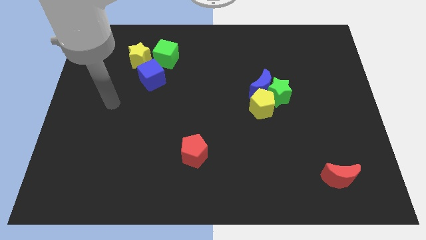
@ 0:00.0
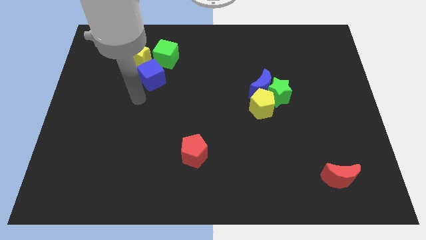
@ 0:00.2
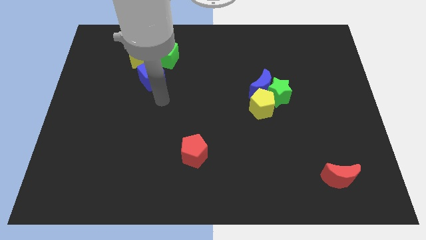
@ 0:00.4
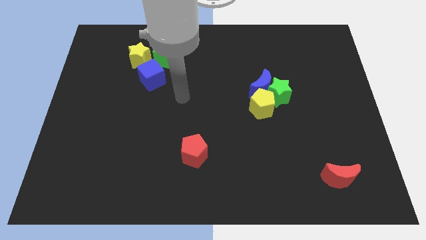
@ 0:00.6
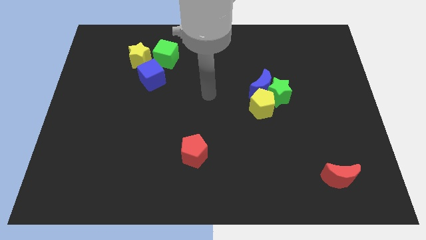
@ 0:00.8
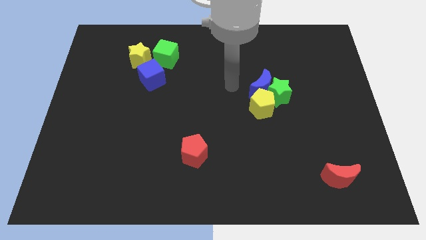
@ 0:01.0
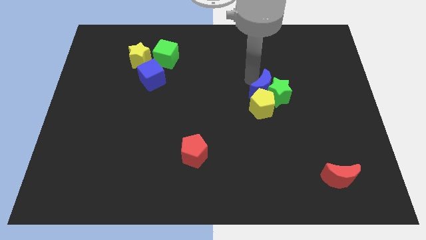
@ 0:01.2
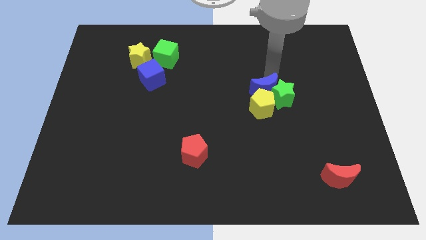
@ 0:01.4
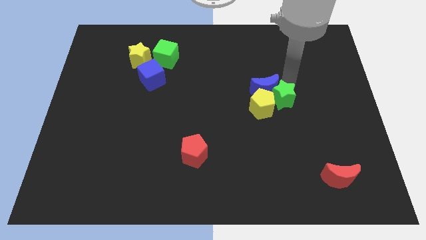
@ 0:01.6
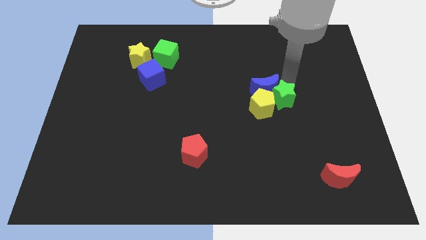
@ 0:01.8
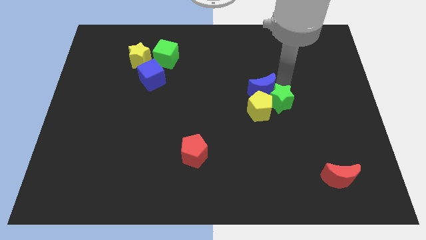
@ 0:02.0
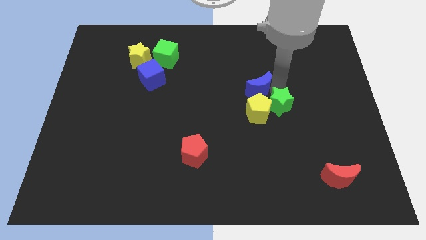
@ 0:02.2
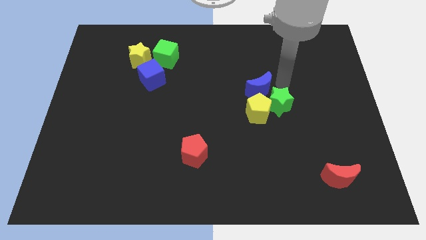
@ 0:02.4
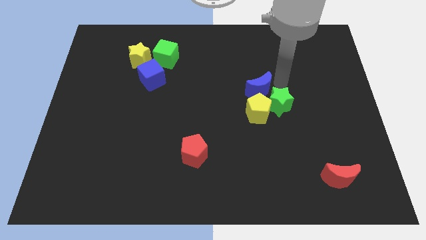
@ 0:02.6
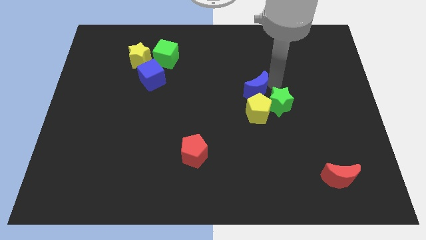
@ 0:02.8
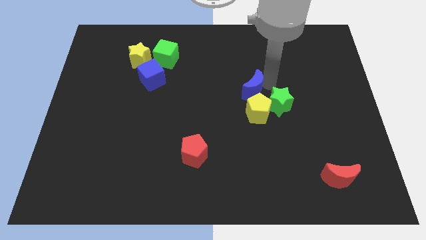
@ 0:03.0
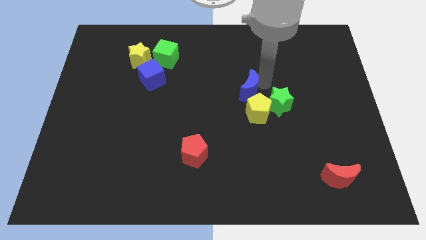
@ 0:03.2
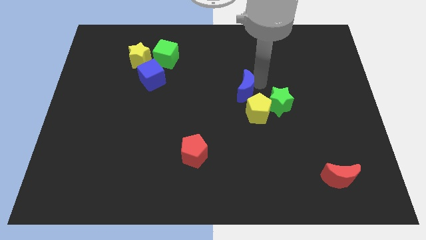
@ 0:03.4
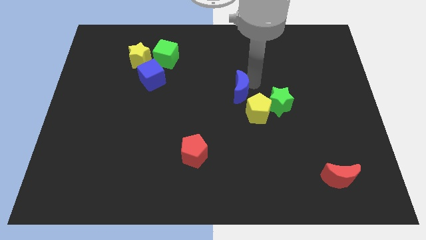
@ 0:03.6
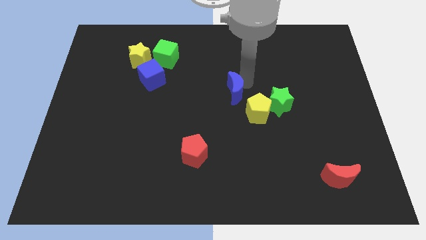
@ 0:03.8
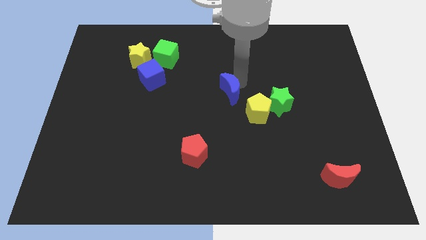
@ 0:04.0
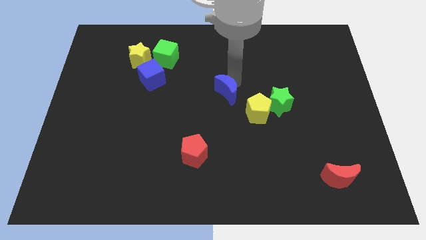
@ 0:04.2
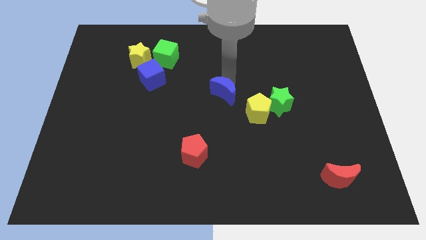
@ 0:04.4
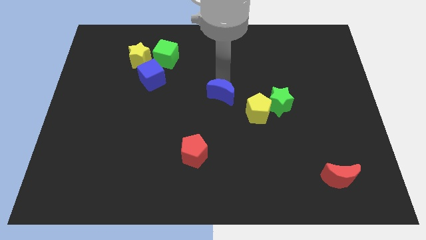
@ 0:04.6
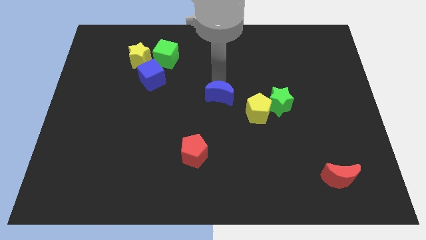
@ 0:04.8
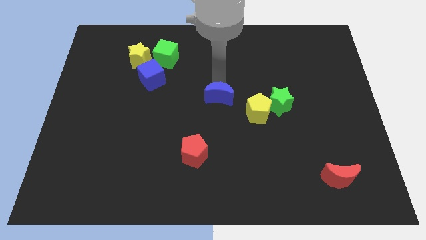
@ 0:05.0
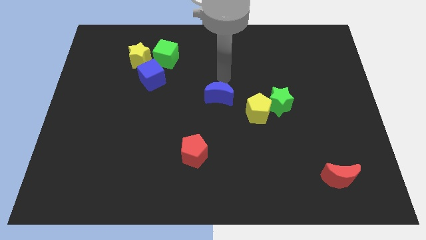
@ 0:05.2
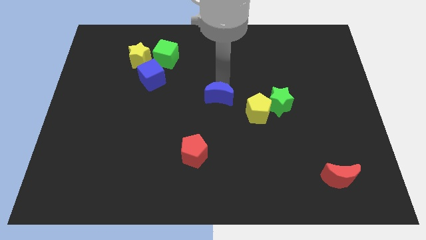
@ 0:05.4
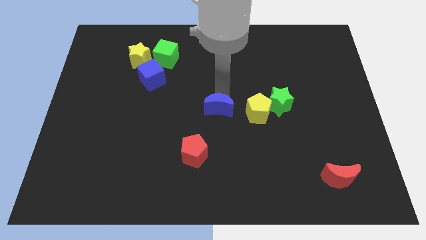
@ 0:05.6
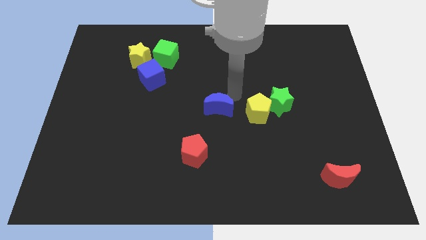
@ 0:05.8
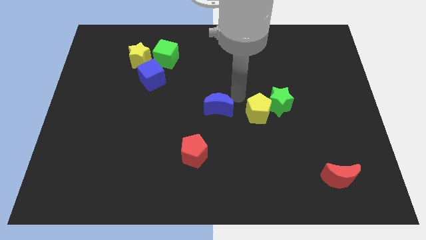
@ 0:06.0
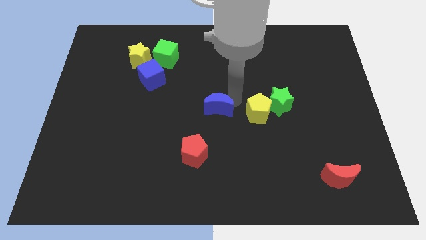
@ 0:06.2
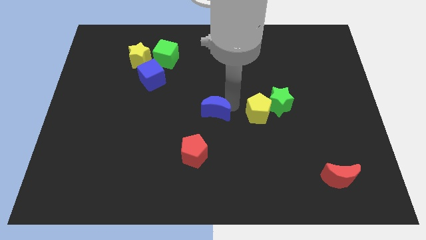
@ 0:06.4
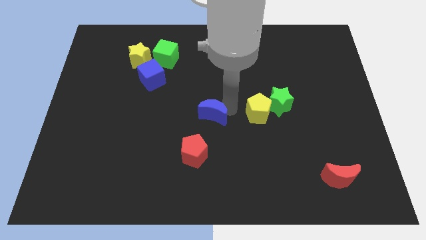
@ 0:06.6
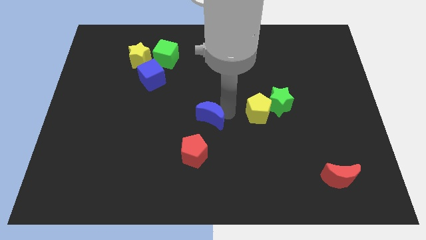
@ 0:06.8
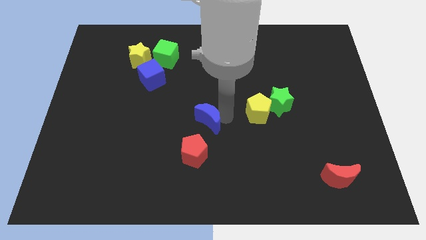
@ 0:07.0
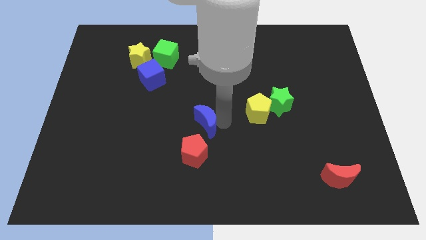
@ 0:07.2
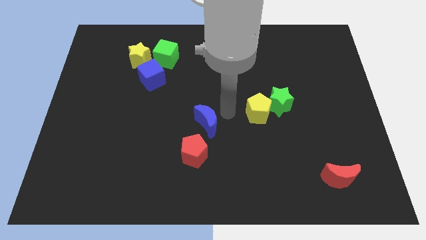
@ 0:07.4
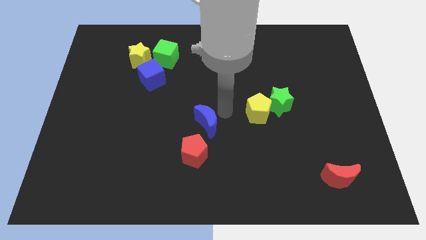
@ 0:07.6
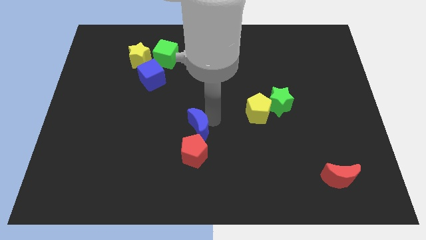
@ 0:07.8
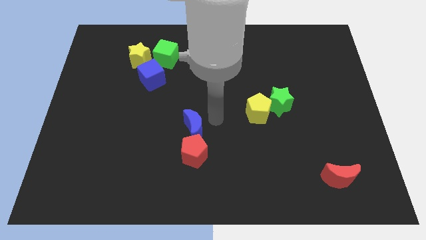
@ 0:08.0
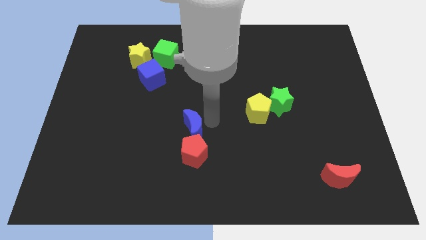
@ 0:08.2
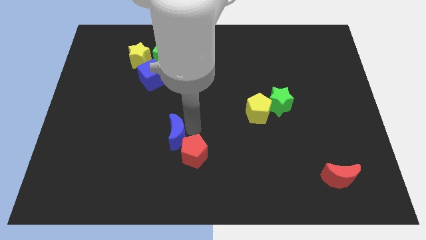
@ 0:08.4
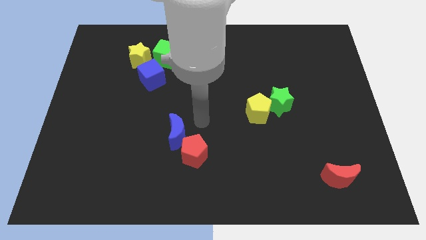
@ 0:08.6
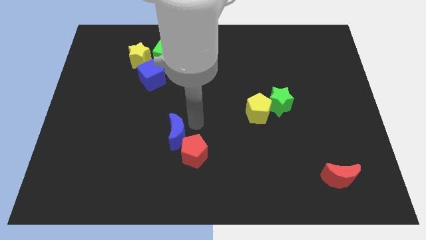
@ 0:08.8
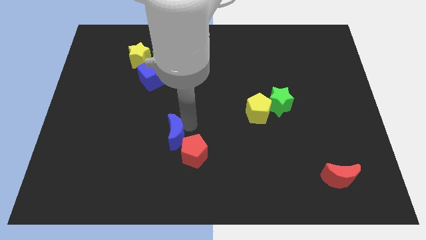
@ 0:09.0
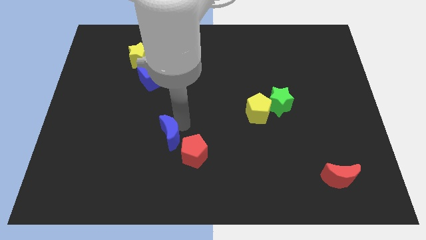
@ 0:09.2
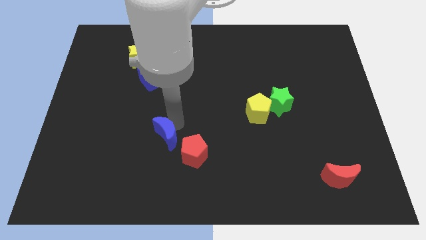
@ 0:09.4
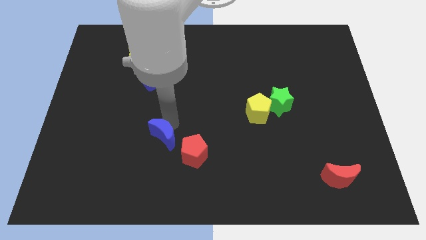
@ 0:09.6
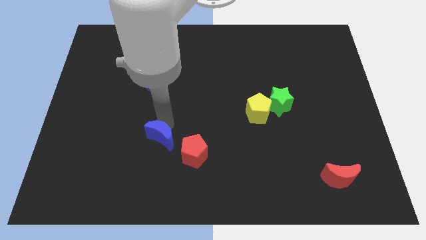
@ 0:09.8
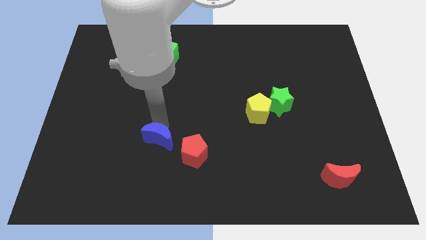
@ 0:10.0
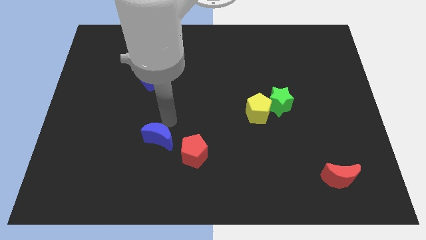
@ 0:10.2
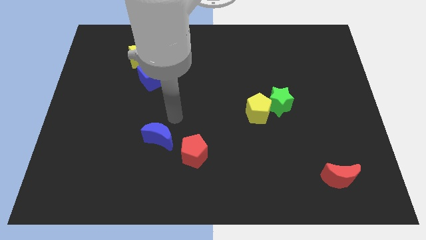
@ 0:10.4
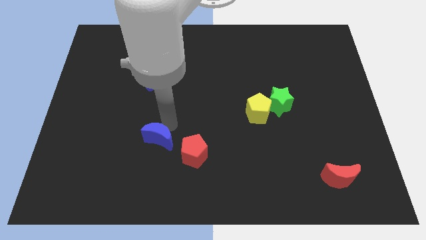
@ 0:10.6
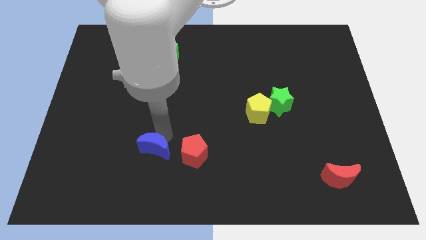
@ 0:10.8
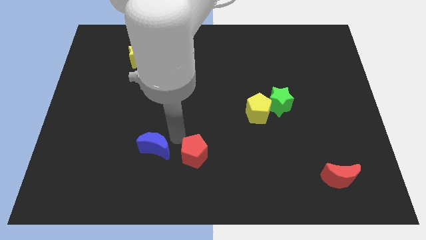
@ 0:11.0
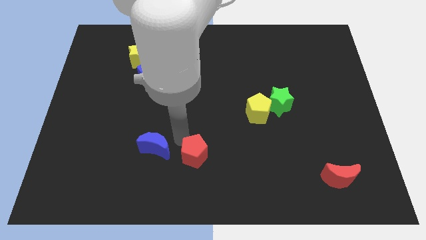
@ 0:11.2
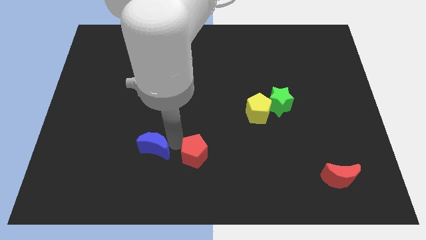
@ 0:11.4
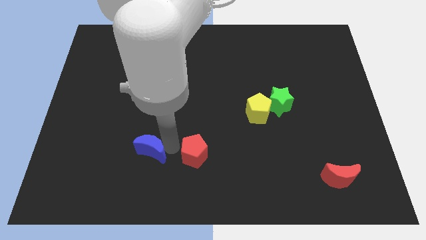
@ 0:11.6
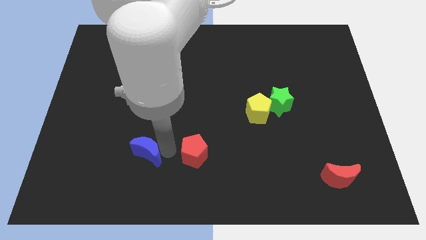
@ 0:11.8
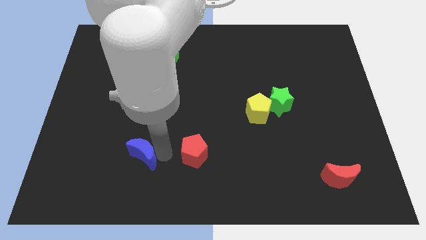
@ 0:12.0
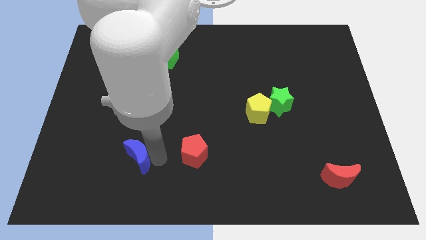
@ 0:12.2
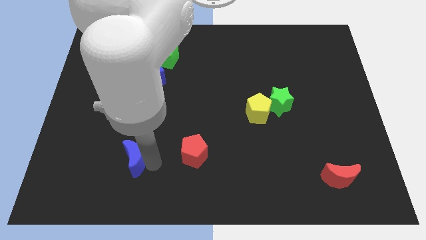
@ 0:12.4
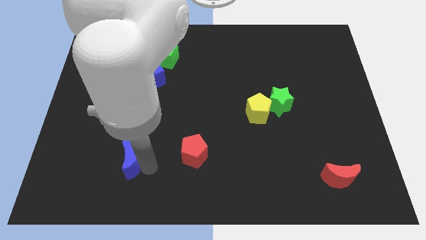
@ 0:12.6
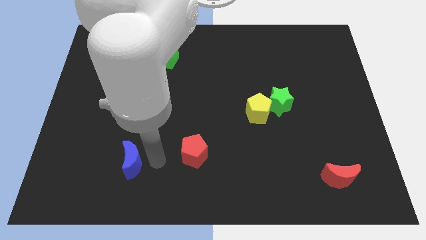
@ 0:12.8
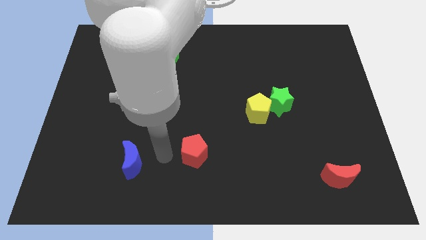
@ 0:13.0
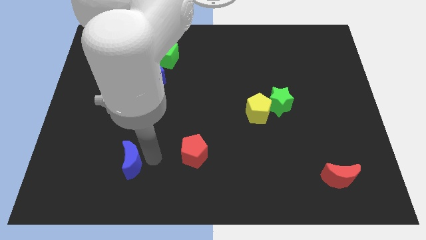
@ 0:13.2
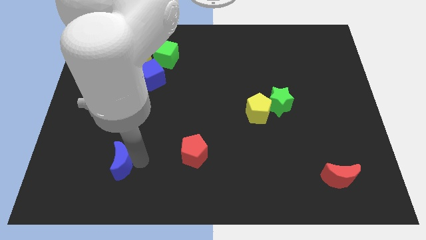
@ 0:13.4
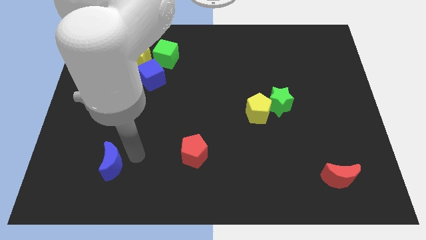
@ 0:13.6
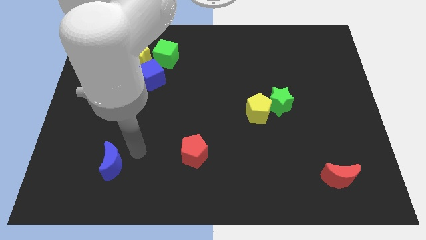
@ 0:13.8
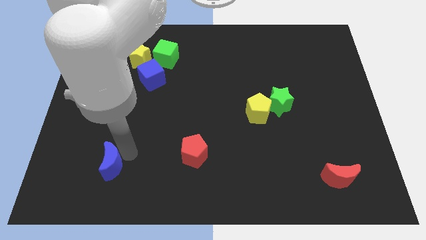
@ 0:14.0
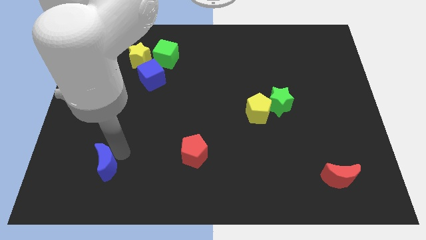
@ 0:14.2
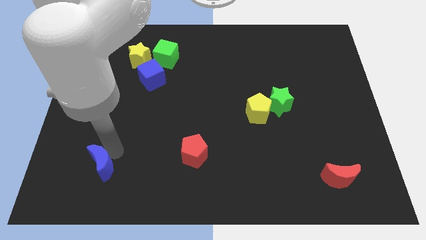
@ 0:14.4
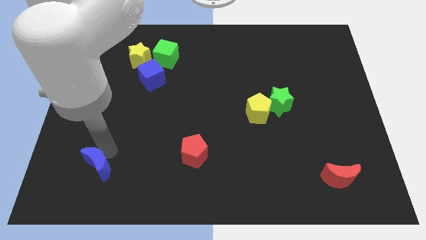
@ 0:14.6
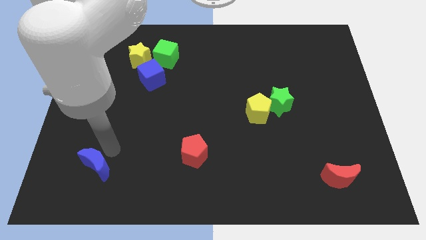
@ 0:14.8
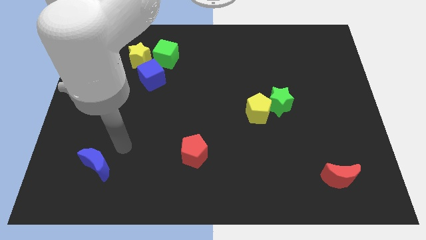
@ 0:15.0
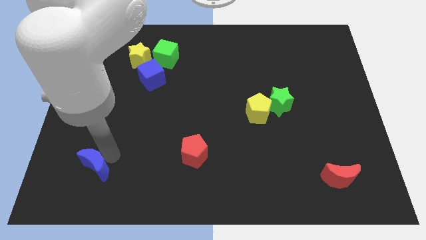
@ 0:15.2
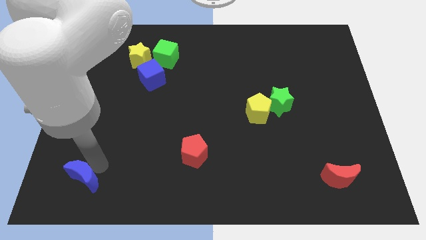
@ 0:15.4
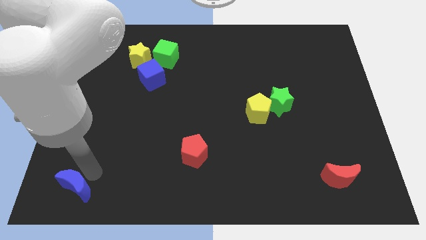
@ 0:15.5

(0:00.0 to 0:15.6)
push the blue moon to the bottom left of the board

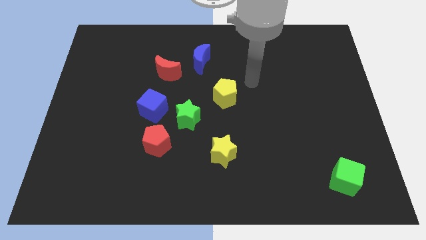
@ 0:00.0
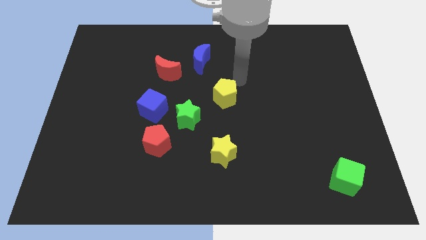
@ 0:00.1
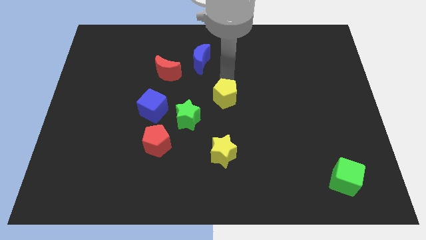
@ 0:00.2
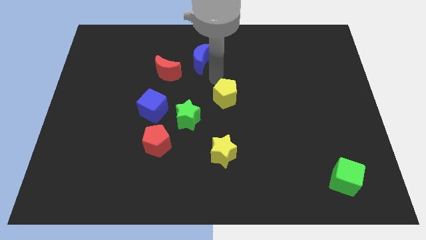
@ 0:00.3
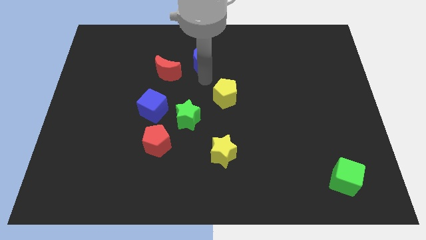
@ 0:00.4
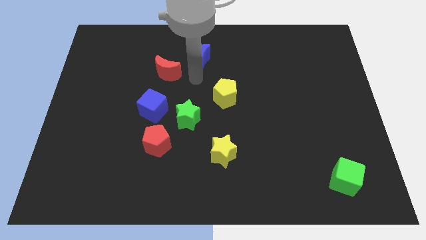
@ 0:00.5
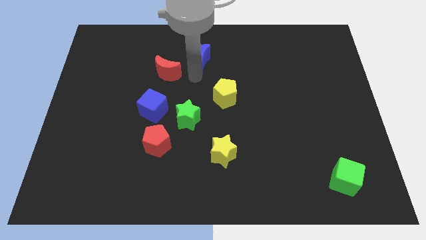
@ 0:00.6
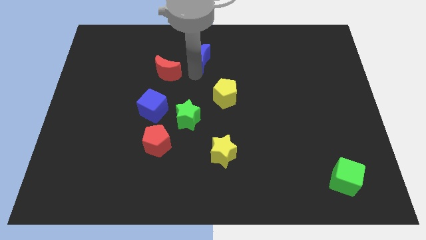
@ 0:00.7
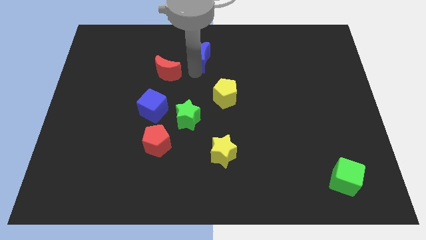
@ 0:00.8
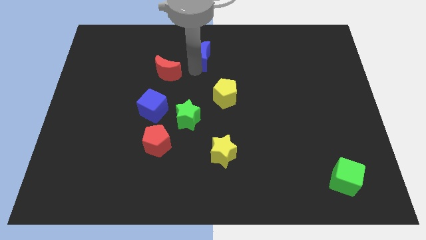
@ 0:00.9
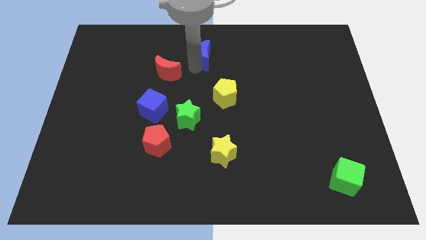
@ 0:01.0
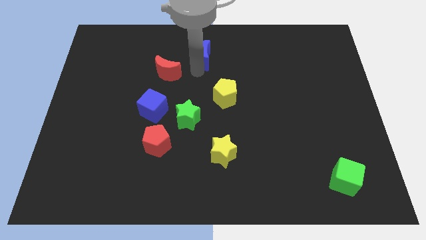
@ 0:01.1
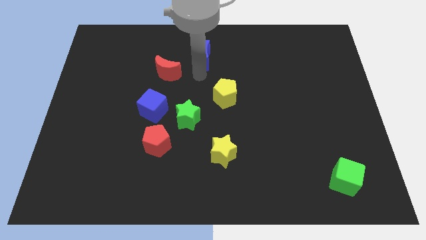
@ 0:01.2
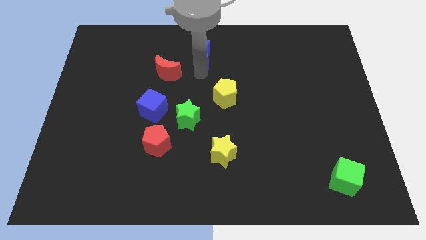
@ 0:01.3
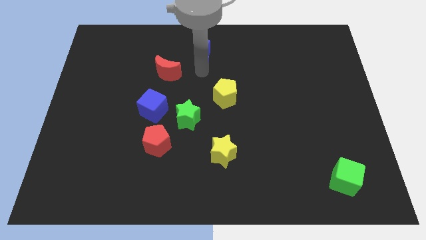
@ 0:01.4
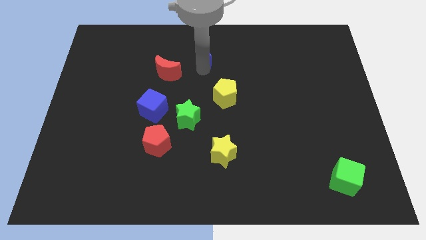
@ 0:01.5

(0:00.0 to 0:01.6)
push the blue moon to the top
